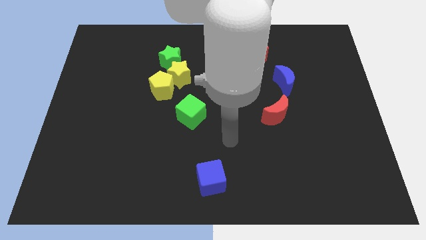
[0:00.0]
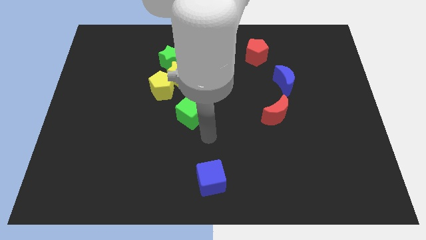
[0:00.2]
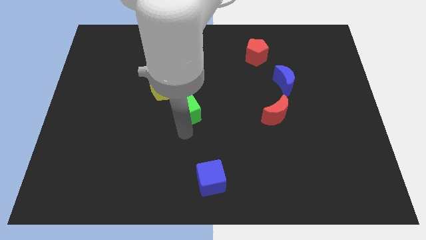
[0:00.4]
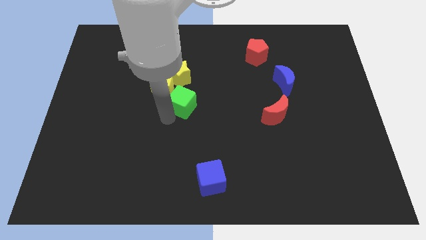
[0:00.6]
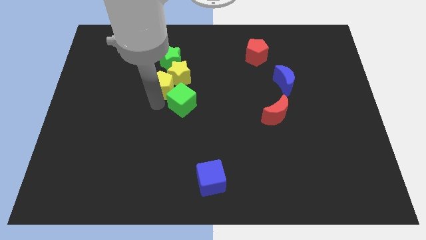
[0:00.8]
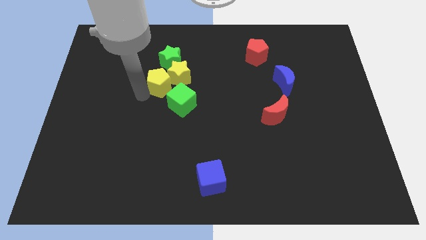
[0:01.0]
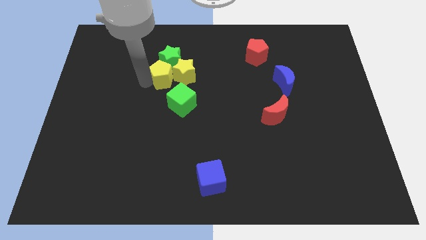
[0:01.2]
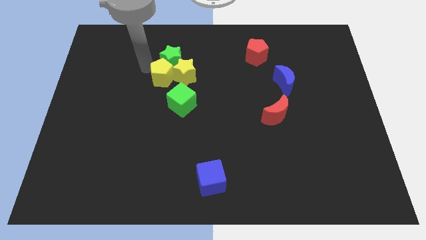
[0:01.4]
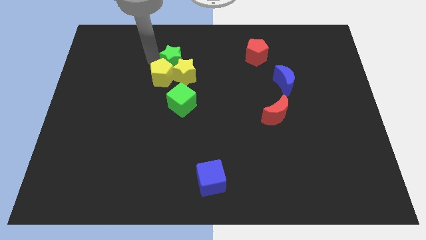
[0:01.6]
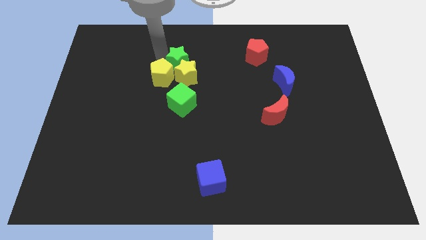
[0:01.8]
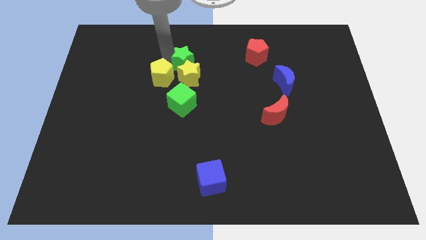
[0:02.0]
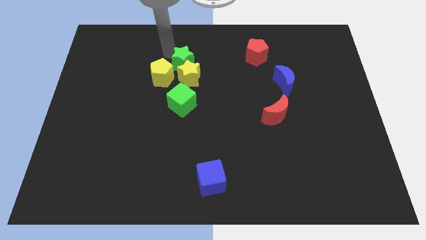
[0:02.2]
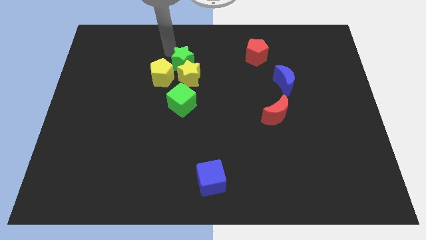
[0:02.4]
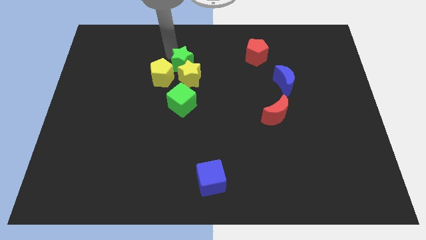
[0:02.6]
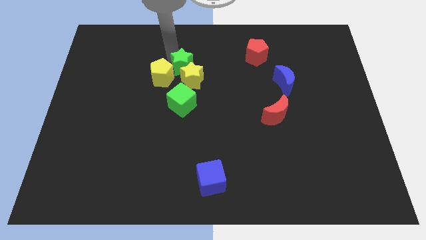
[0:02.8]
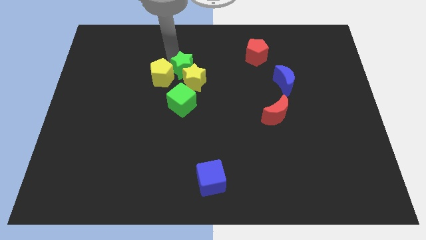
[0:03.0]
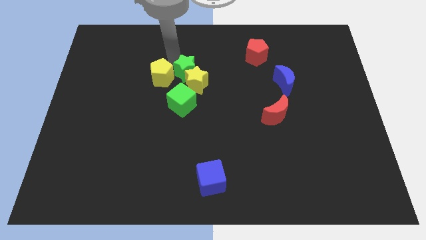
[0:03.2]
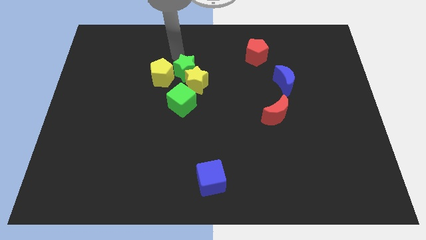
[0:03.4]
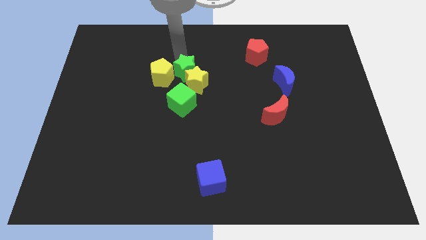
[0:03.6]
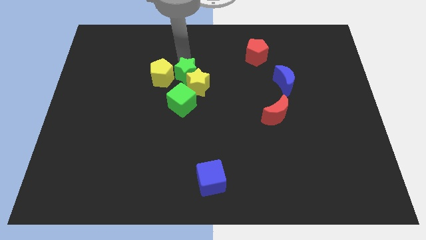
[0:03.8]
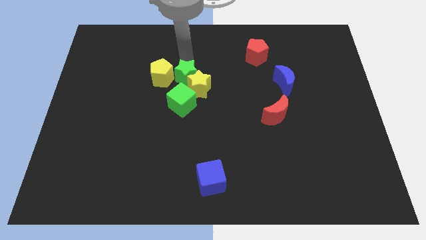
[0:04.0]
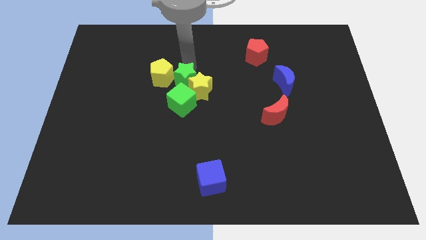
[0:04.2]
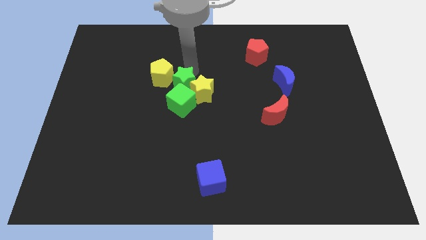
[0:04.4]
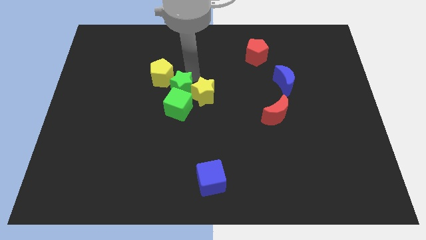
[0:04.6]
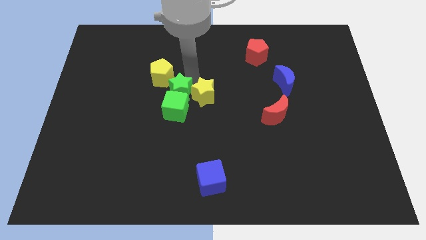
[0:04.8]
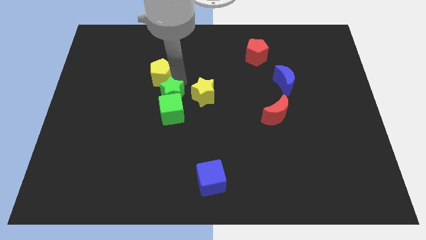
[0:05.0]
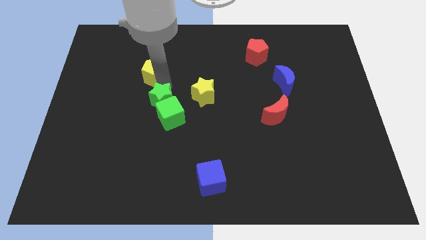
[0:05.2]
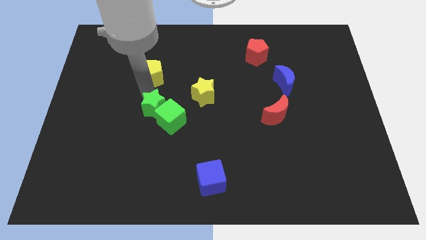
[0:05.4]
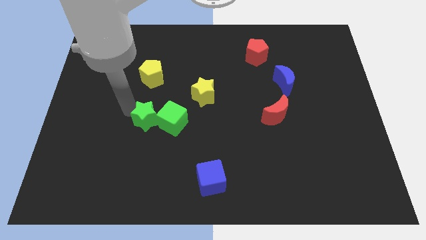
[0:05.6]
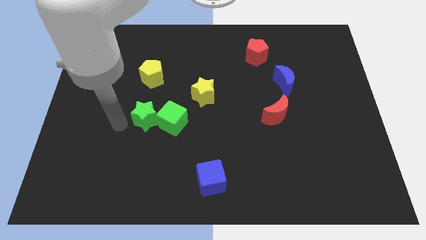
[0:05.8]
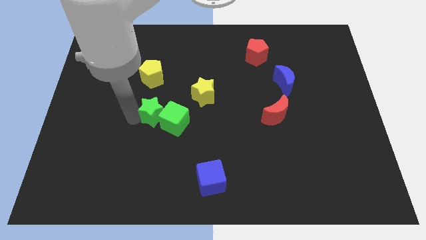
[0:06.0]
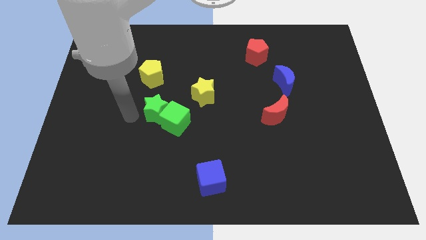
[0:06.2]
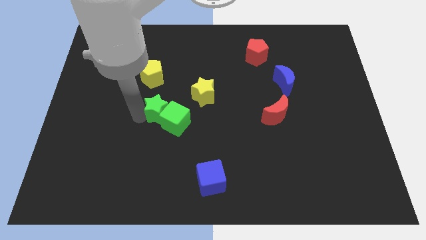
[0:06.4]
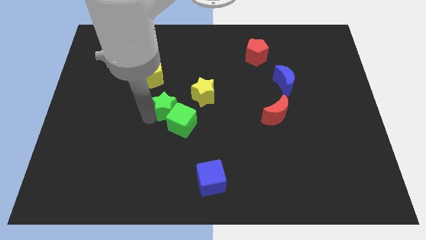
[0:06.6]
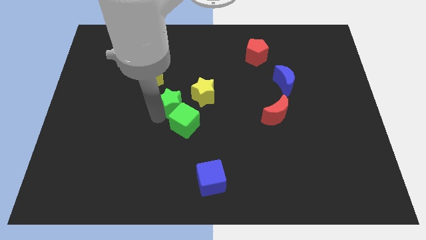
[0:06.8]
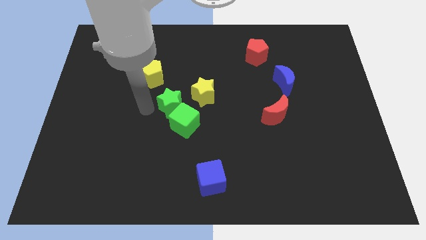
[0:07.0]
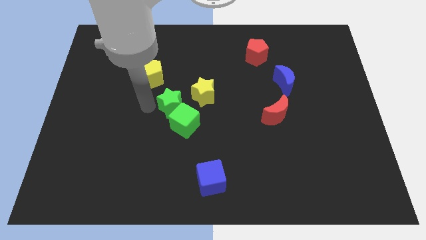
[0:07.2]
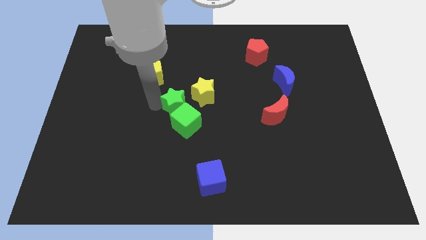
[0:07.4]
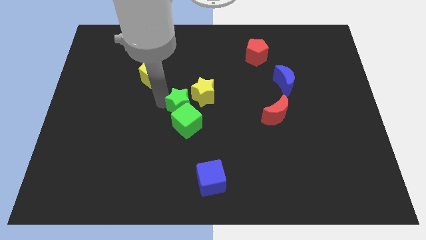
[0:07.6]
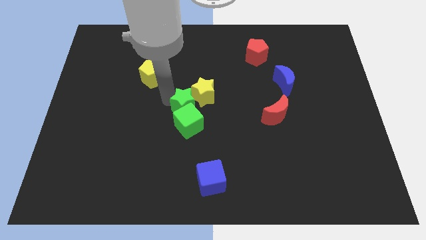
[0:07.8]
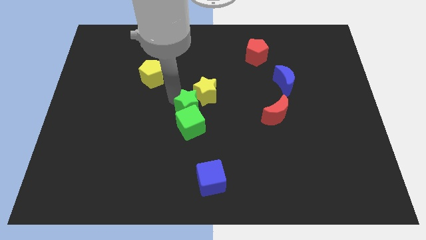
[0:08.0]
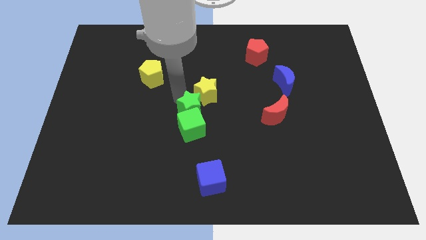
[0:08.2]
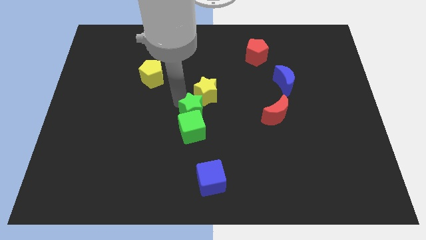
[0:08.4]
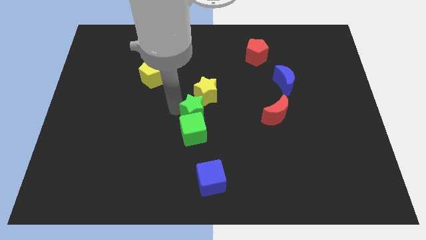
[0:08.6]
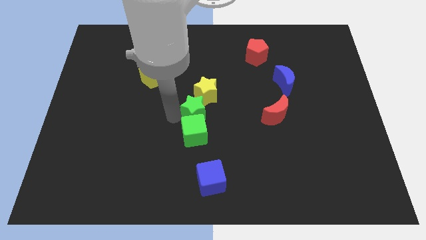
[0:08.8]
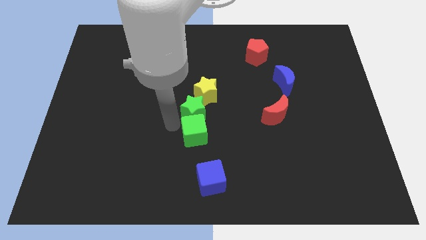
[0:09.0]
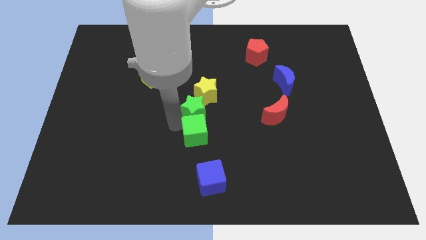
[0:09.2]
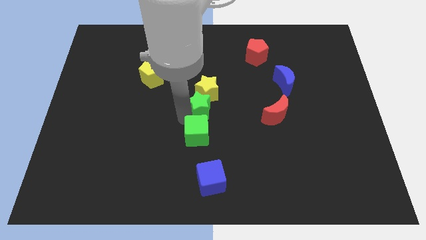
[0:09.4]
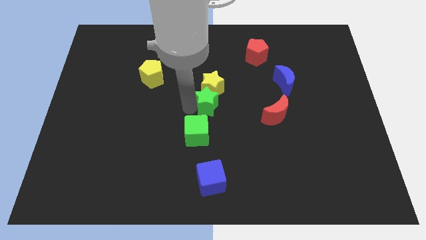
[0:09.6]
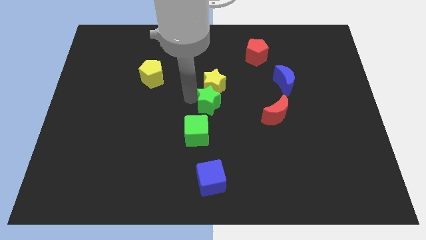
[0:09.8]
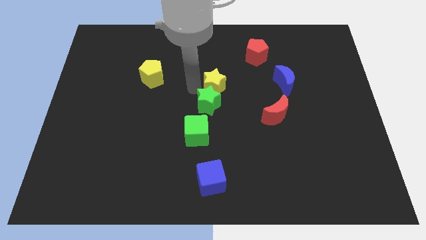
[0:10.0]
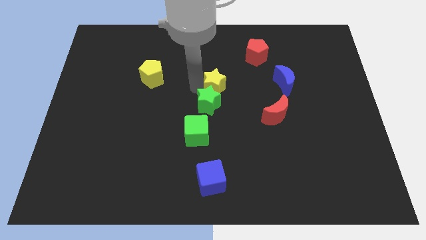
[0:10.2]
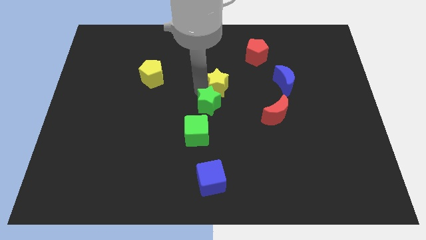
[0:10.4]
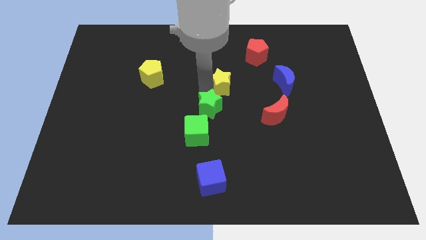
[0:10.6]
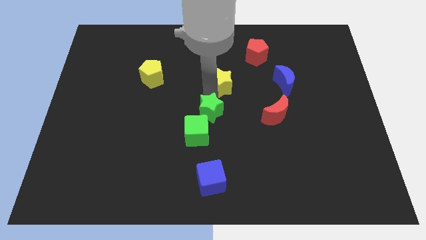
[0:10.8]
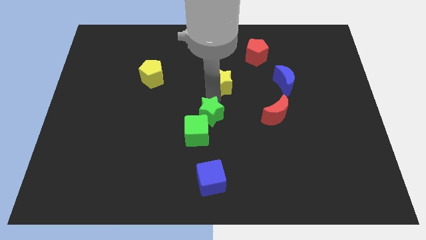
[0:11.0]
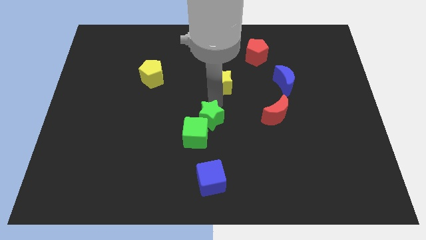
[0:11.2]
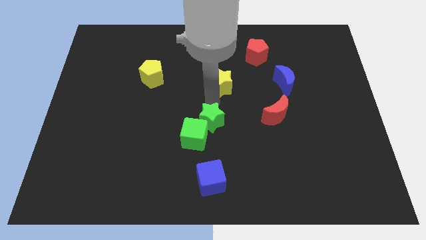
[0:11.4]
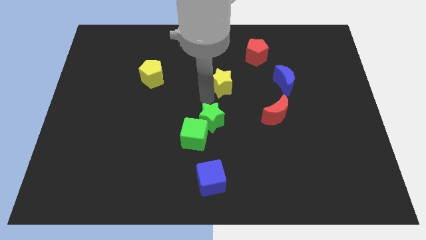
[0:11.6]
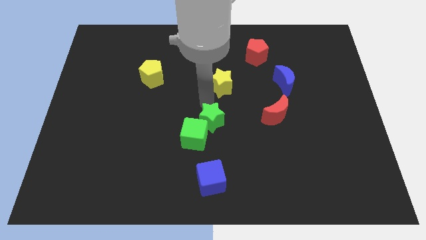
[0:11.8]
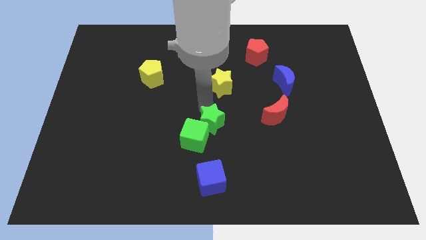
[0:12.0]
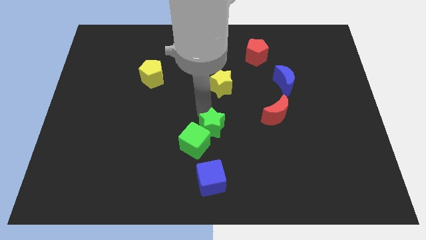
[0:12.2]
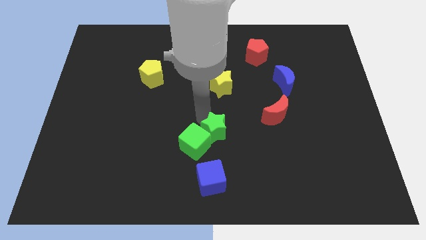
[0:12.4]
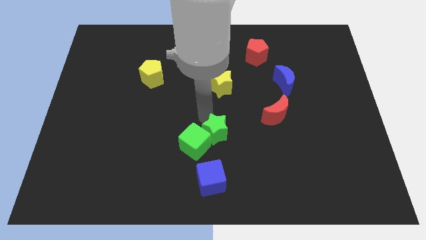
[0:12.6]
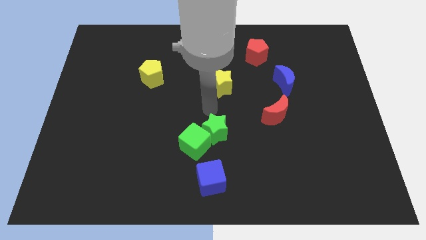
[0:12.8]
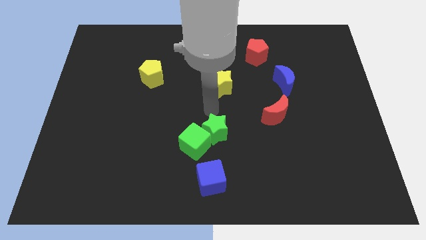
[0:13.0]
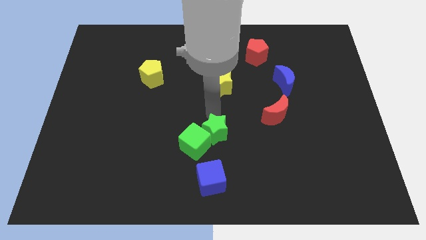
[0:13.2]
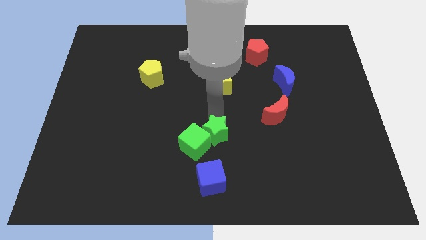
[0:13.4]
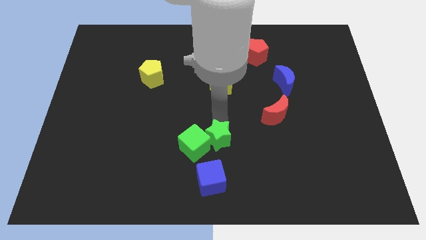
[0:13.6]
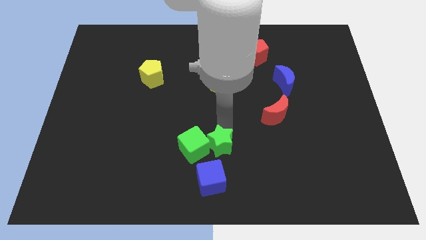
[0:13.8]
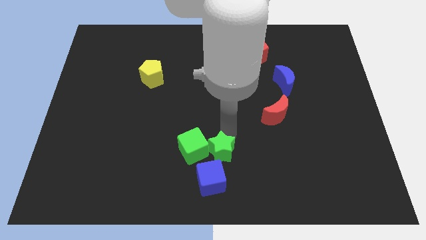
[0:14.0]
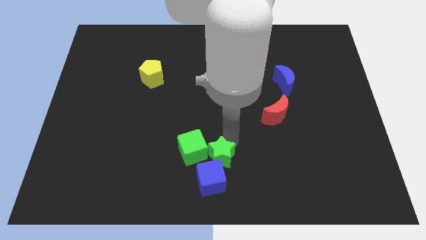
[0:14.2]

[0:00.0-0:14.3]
move the green star next to the blue cube
